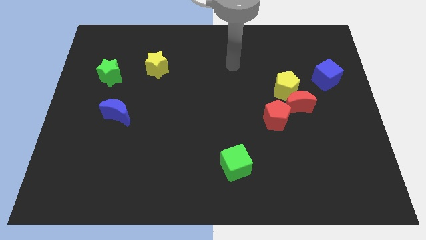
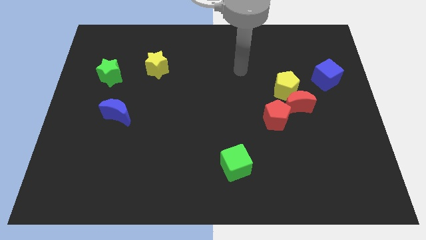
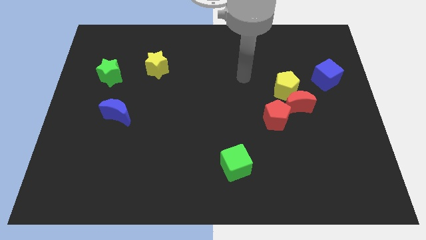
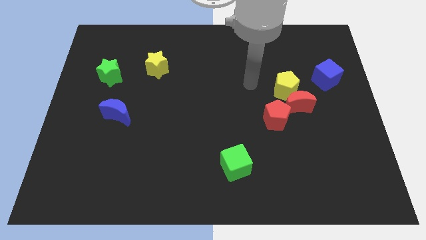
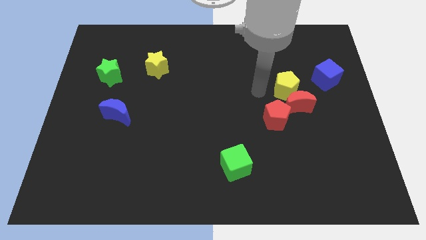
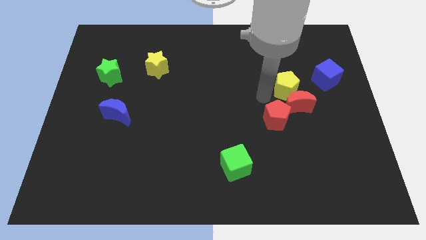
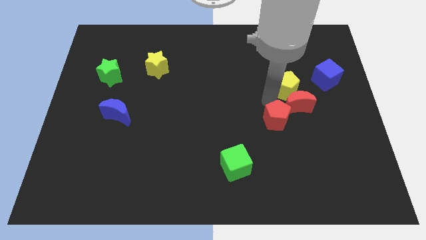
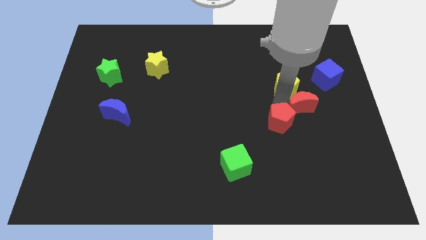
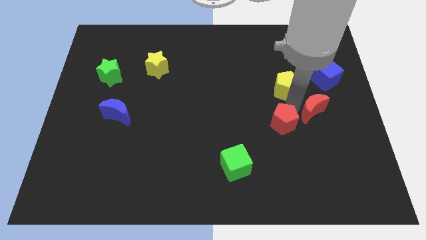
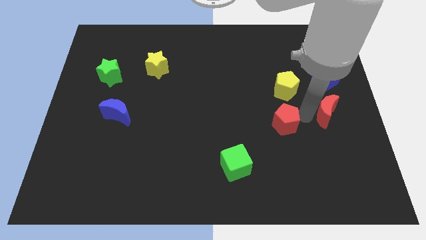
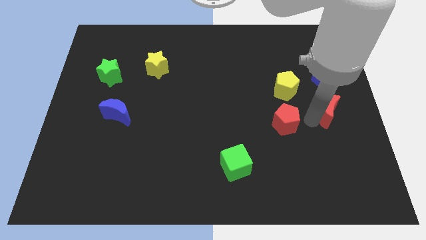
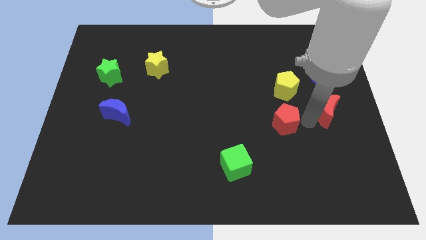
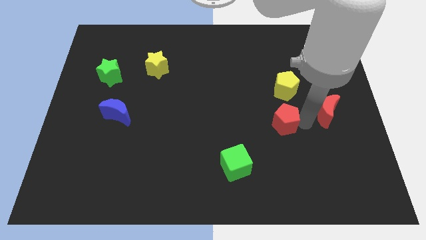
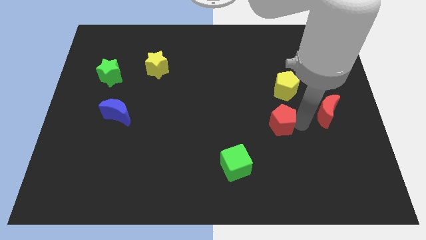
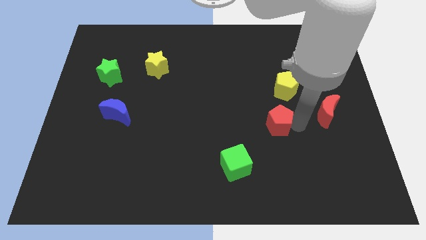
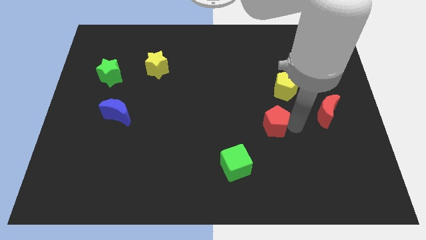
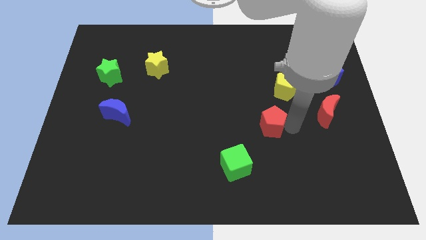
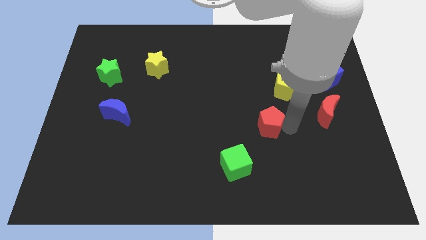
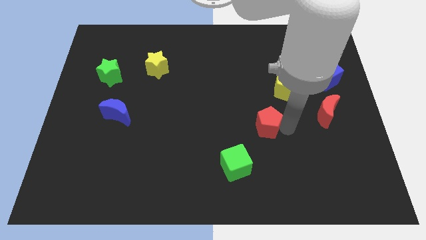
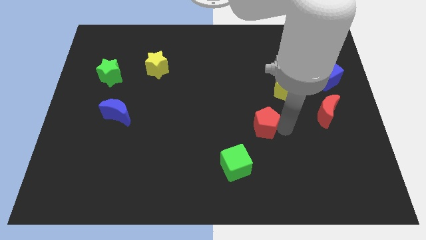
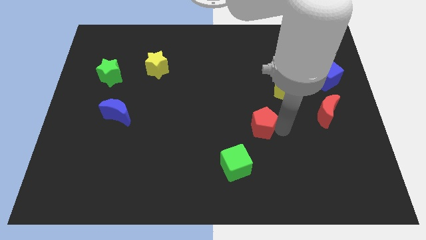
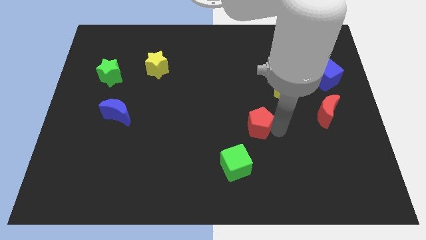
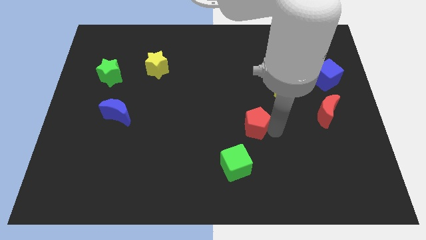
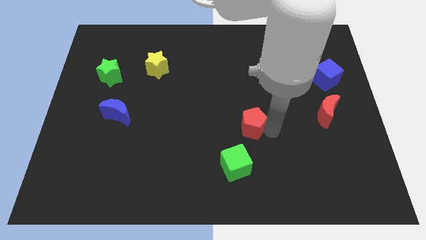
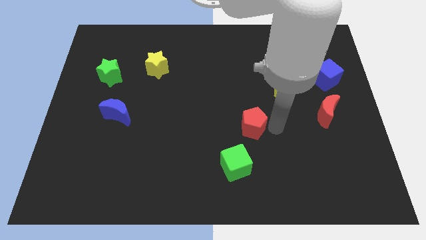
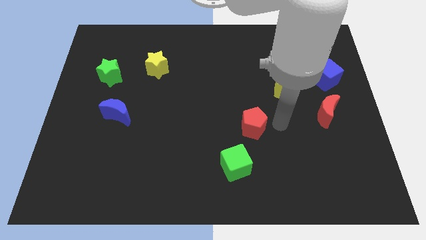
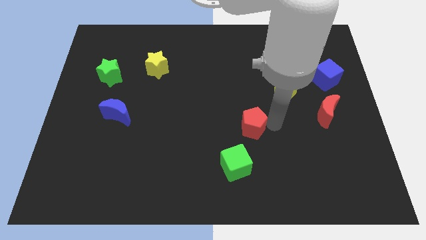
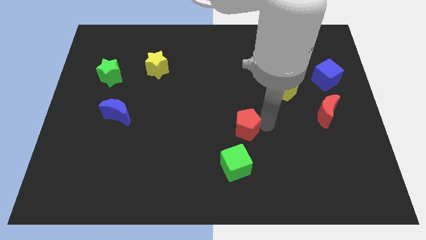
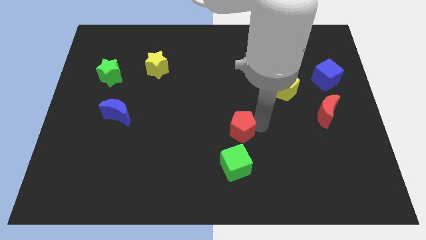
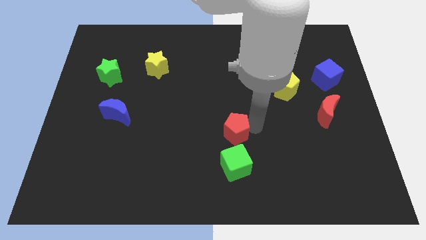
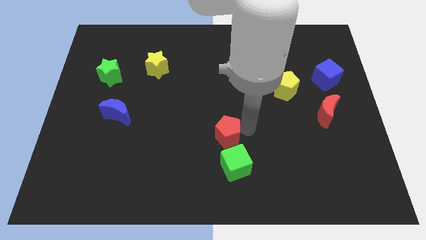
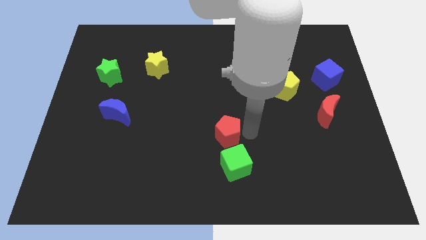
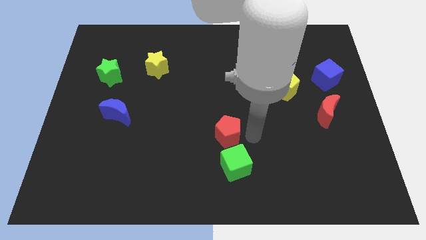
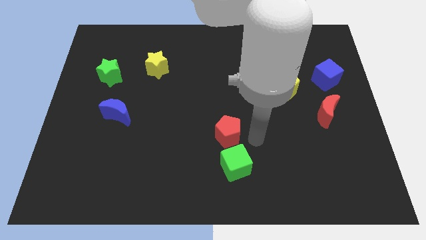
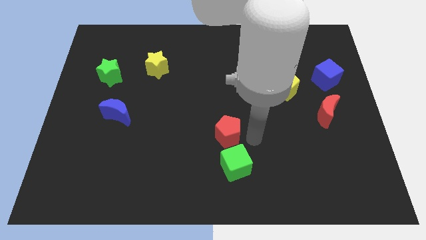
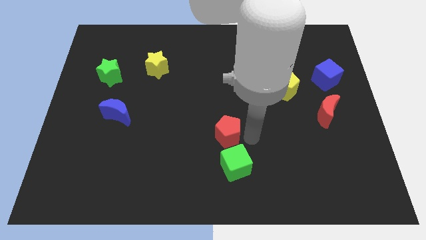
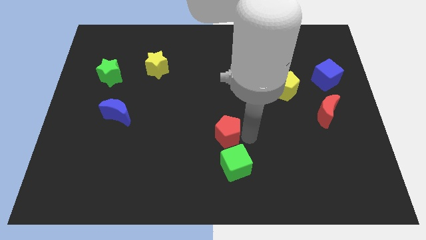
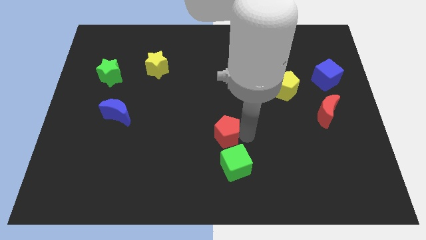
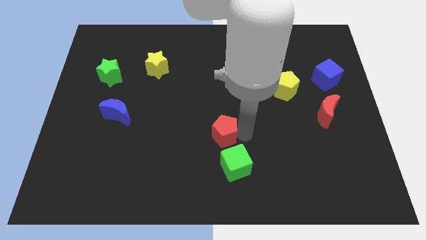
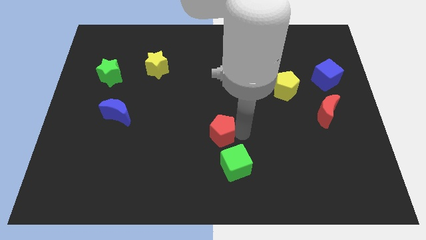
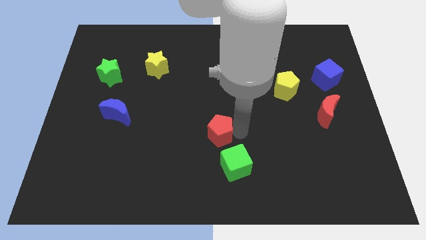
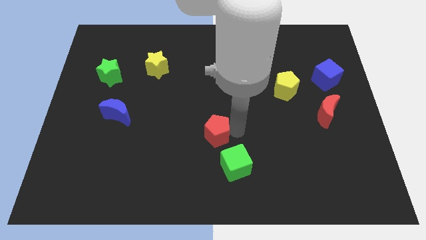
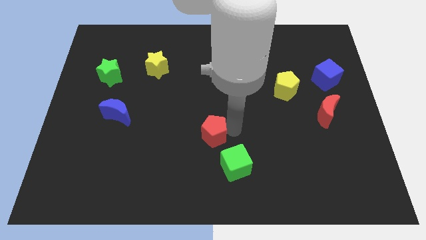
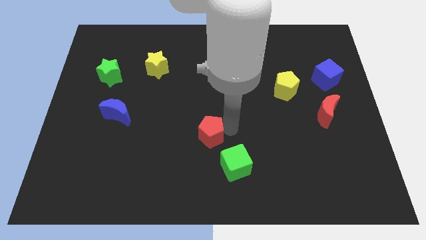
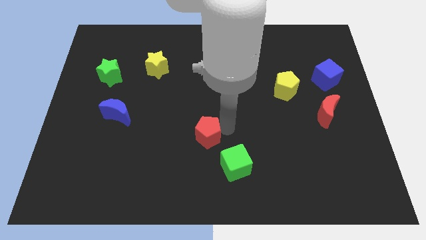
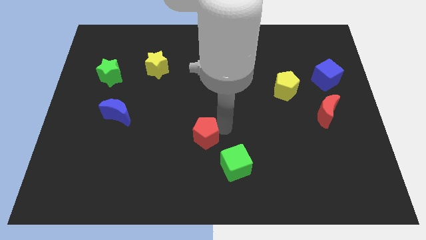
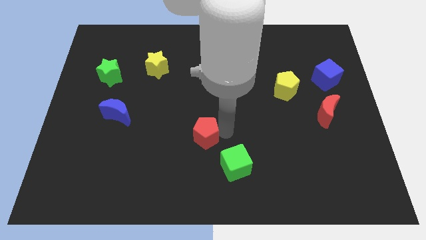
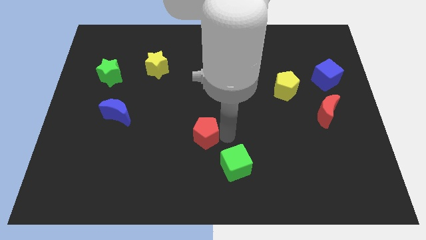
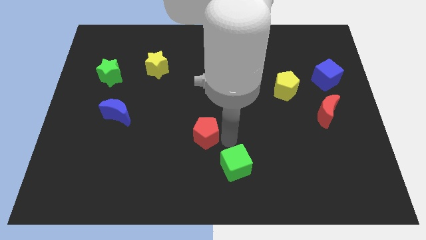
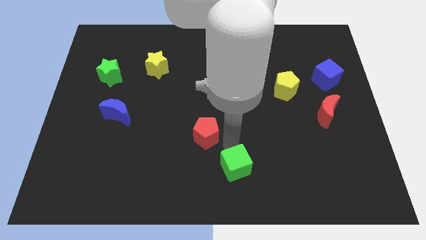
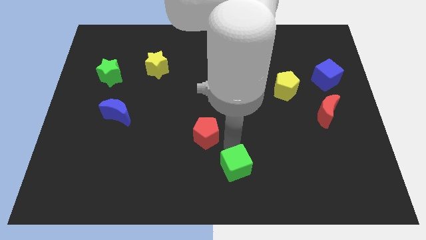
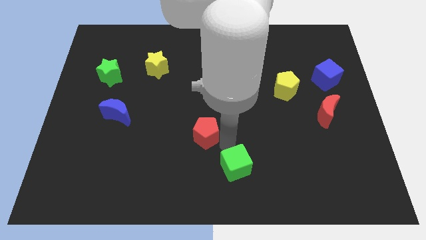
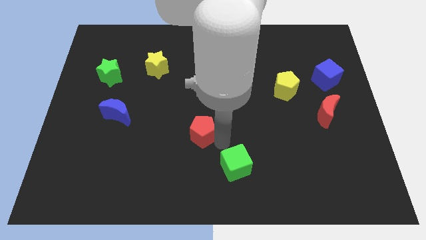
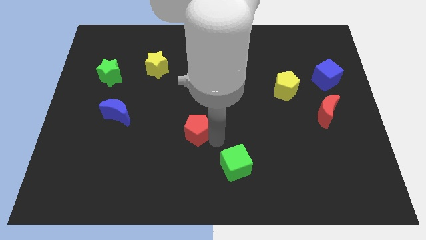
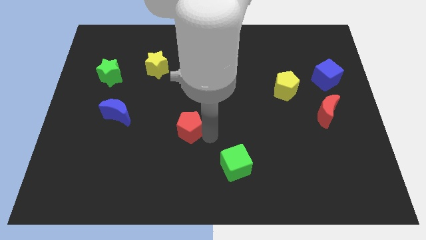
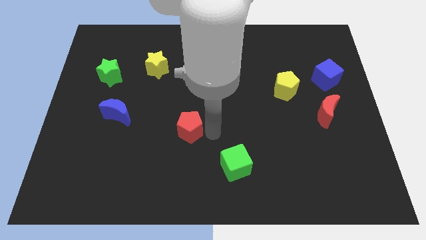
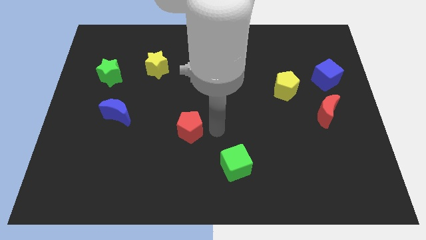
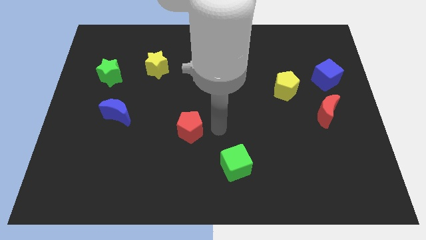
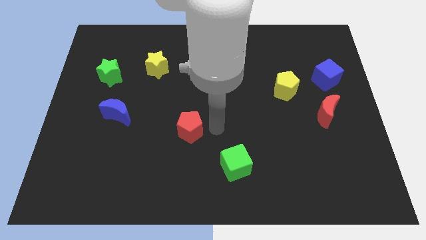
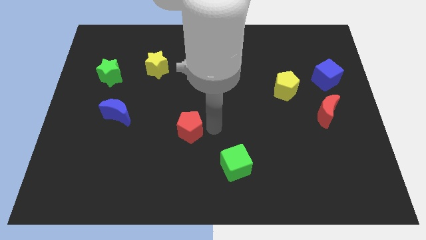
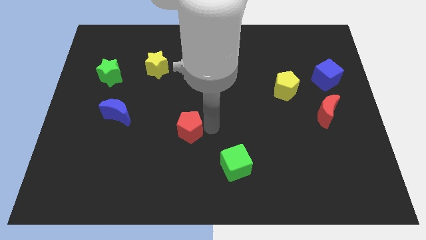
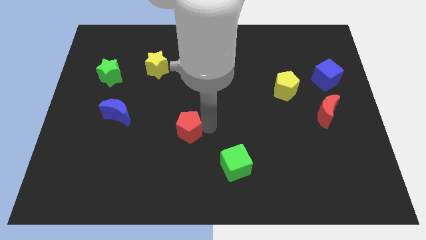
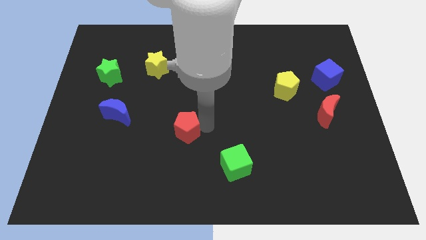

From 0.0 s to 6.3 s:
slide the red pentagon left

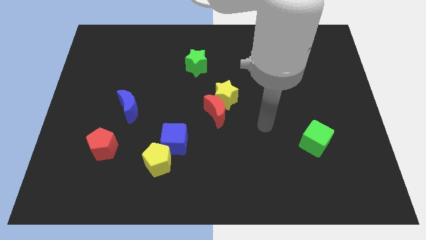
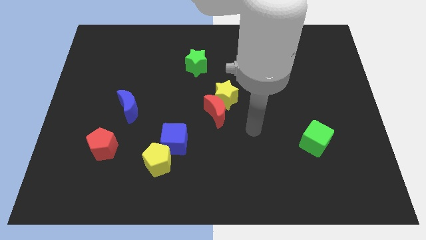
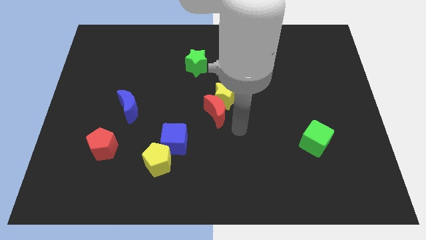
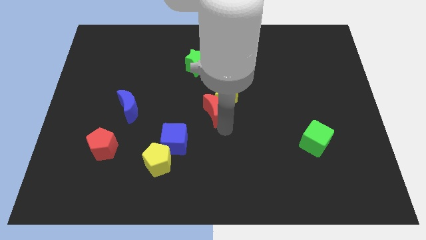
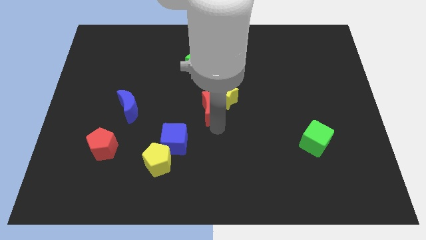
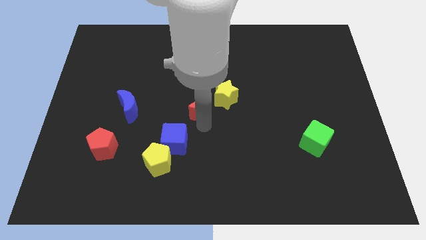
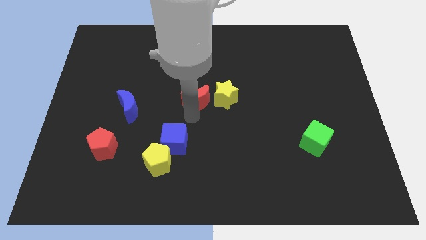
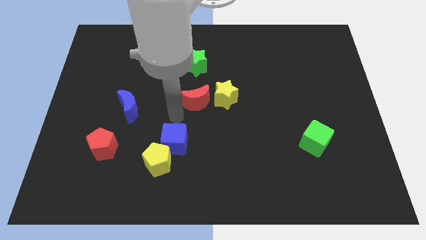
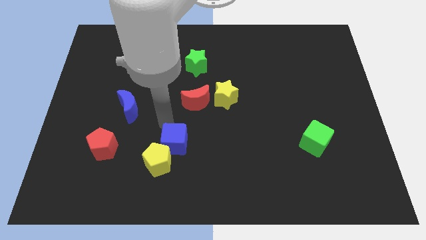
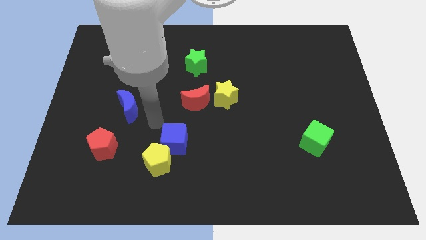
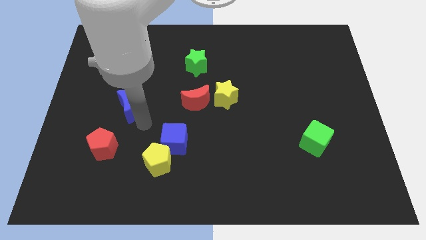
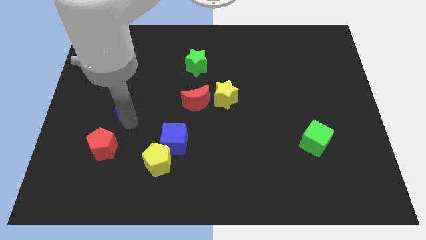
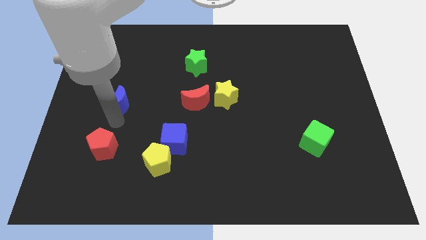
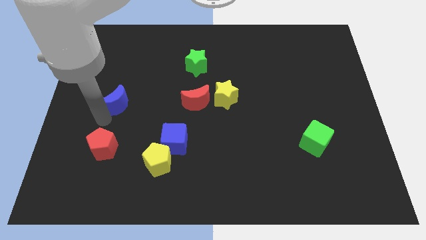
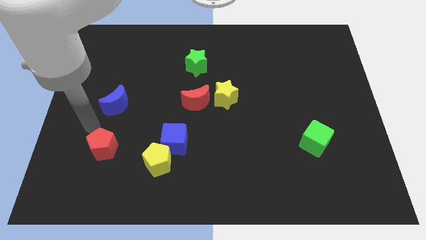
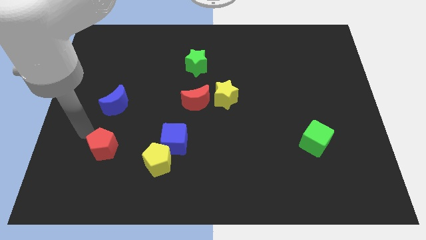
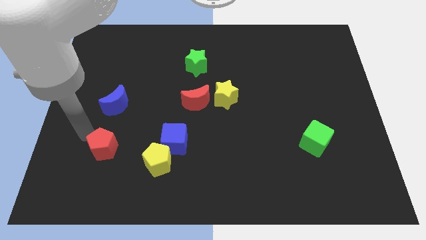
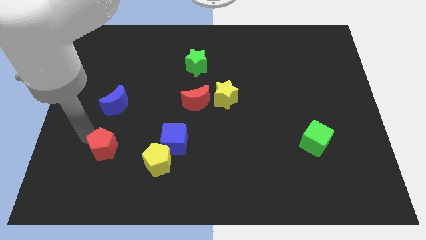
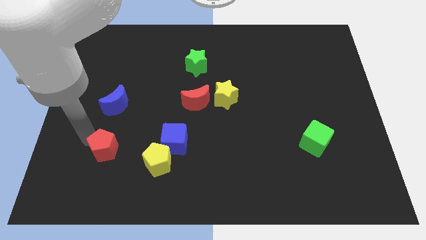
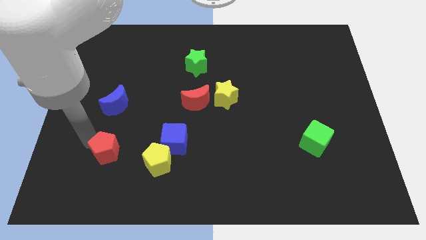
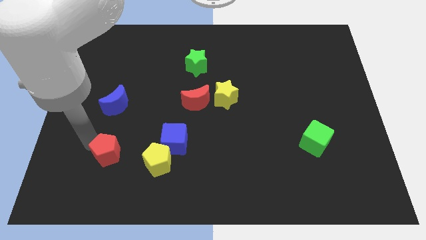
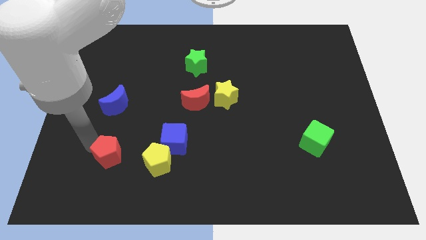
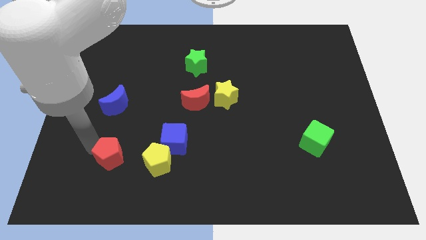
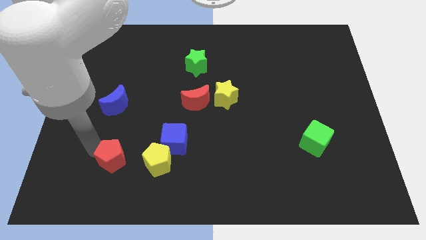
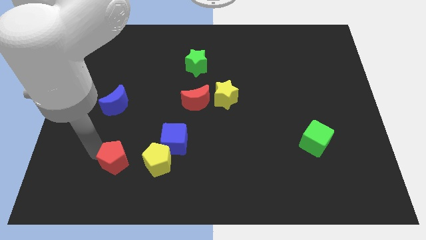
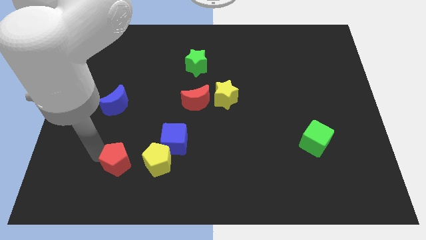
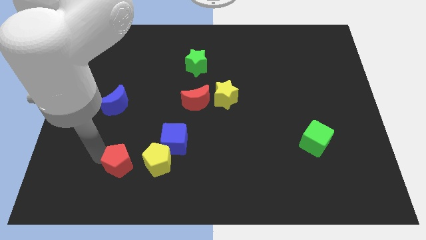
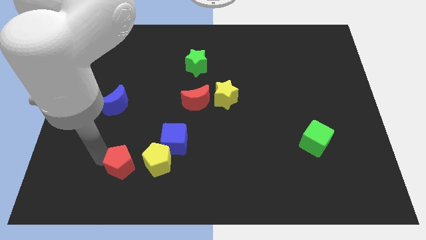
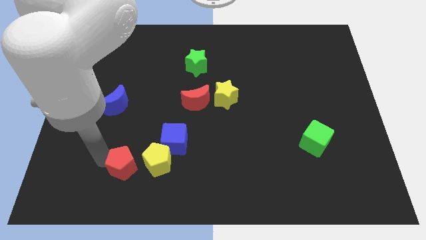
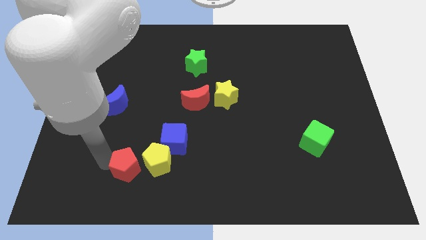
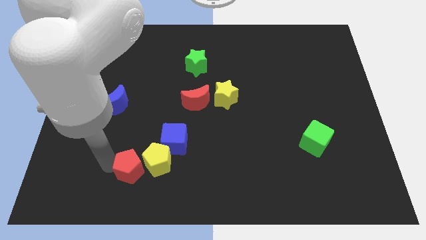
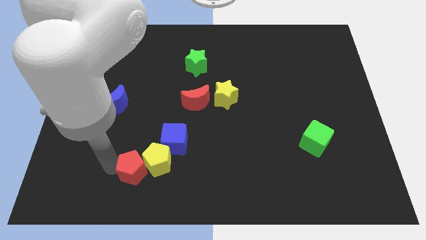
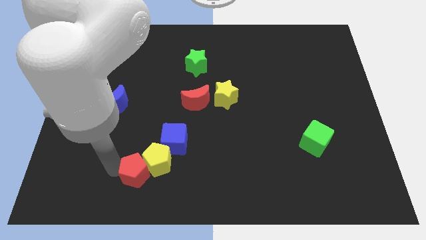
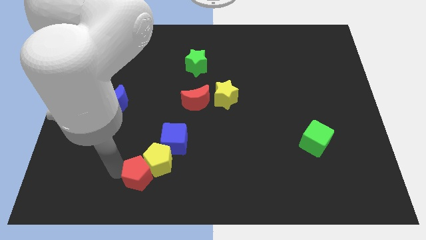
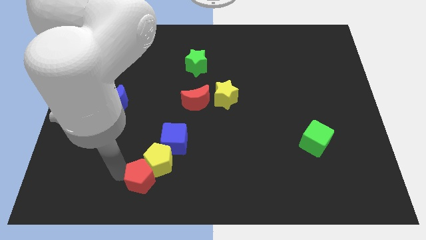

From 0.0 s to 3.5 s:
slightly push the red pentagon to the right
